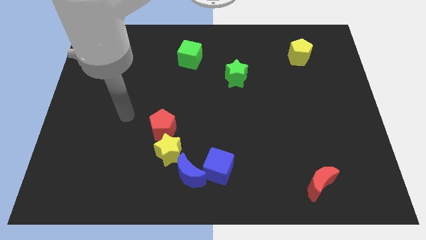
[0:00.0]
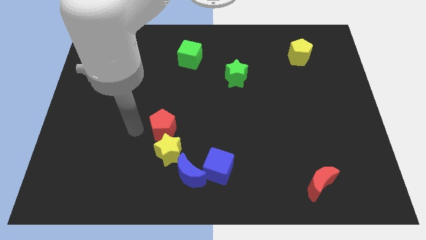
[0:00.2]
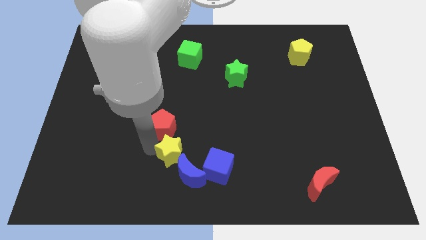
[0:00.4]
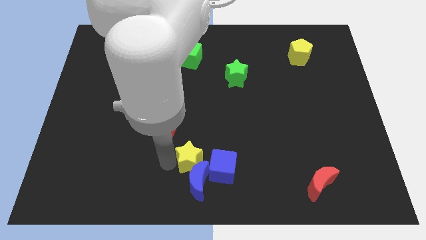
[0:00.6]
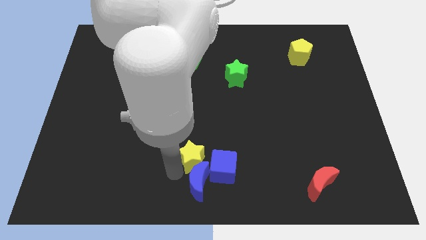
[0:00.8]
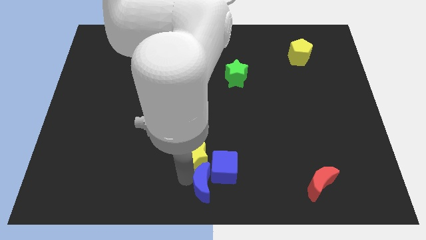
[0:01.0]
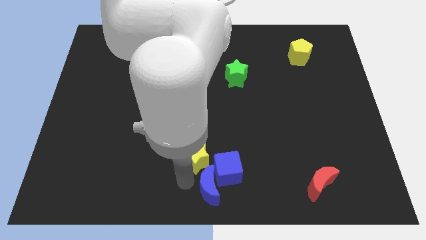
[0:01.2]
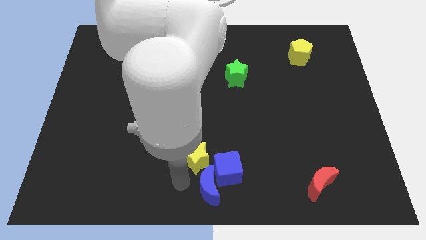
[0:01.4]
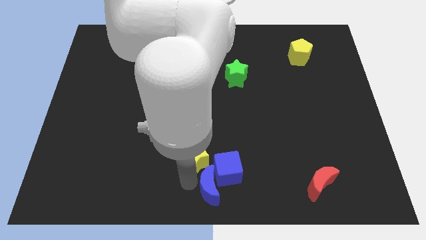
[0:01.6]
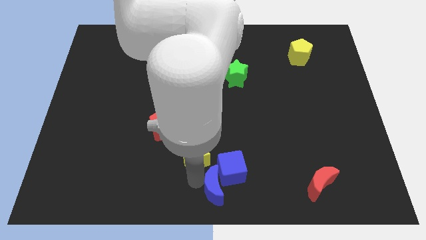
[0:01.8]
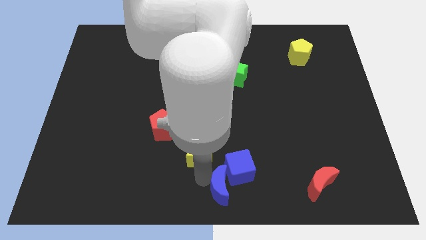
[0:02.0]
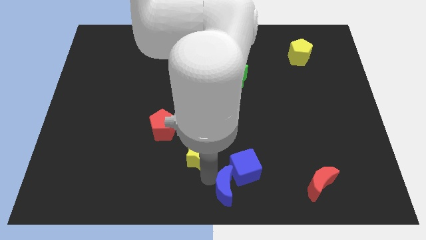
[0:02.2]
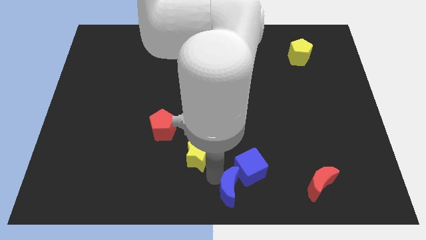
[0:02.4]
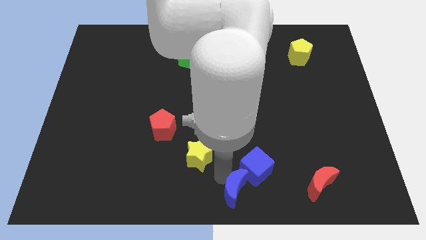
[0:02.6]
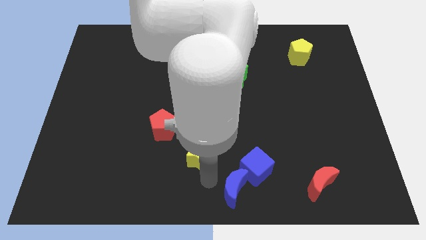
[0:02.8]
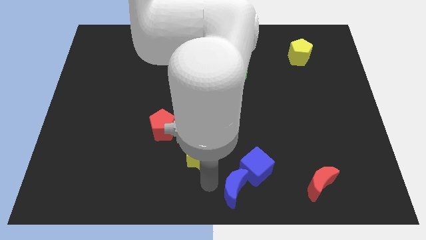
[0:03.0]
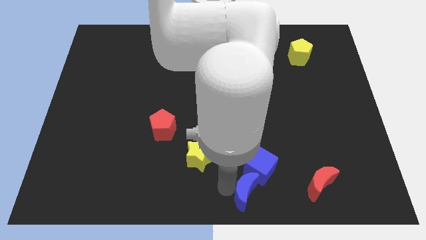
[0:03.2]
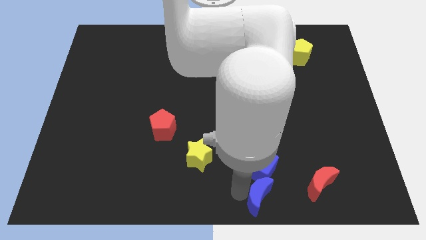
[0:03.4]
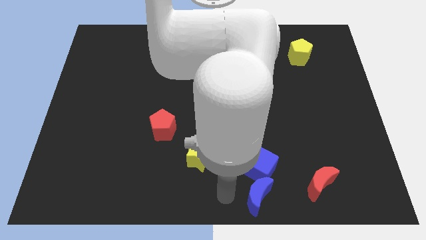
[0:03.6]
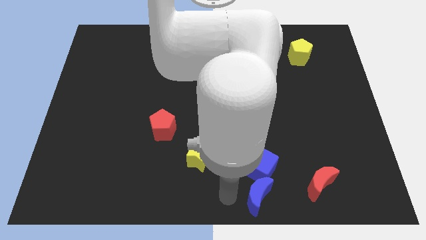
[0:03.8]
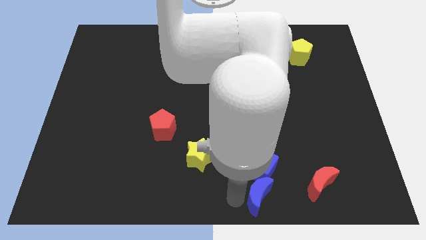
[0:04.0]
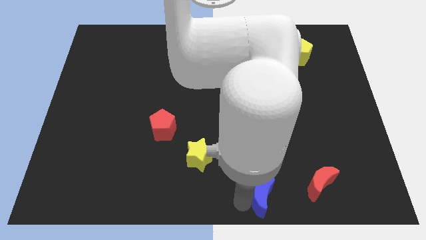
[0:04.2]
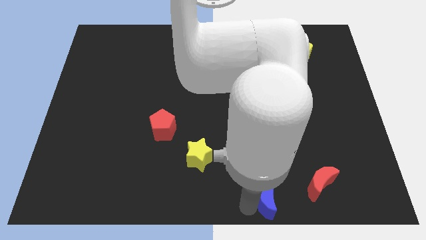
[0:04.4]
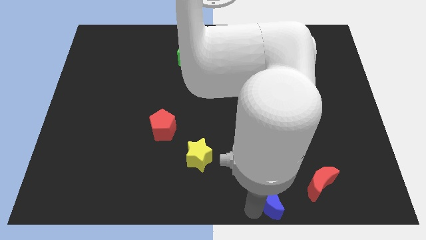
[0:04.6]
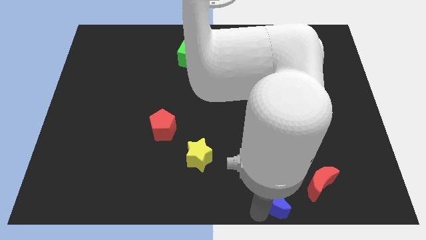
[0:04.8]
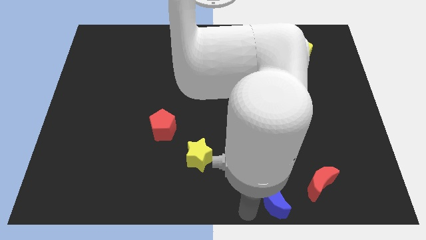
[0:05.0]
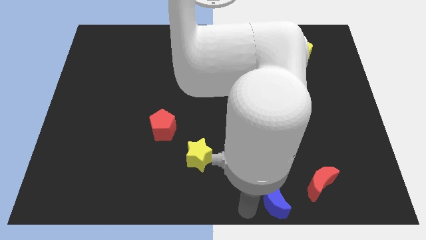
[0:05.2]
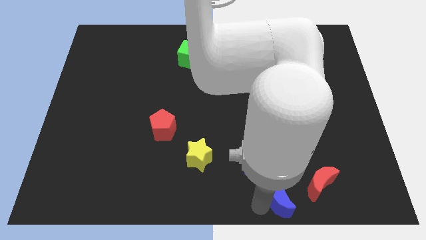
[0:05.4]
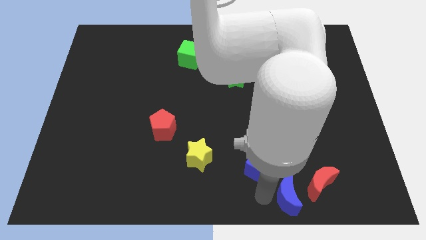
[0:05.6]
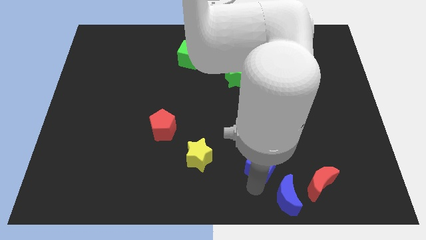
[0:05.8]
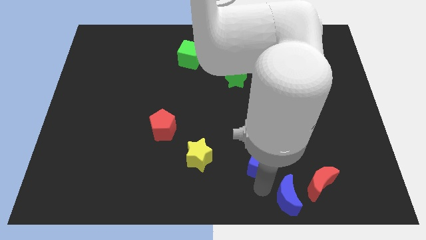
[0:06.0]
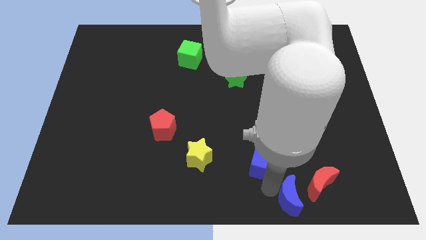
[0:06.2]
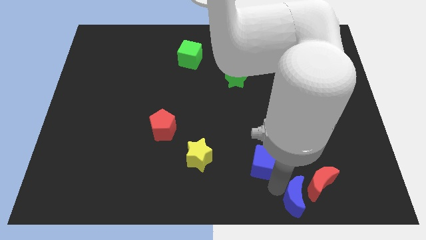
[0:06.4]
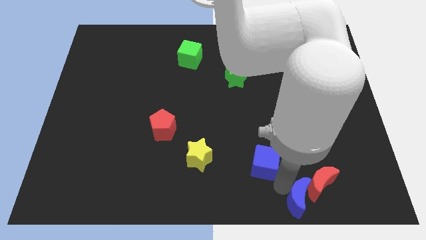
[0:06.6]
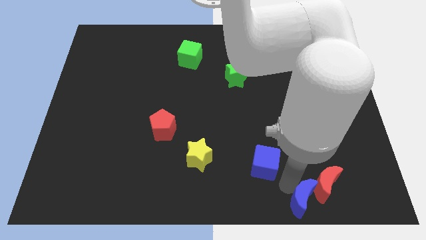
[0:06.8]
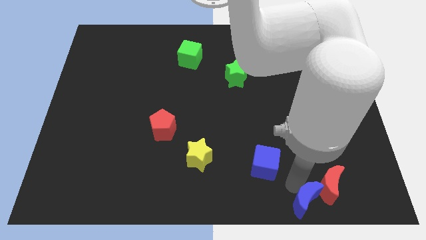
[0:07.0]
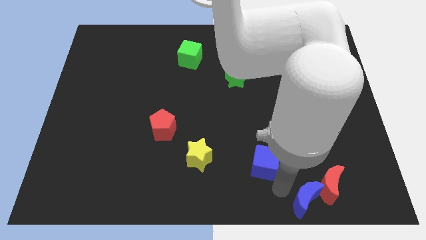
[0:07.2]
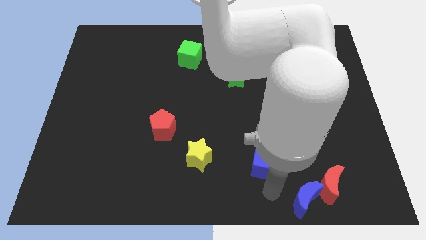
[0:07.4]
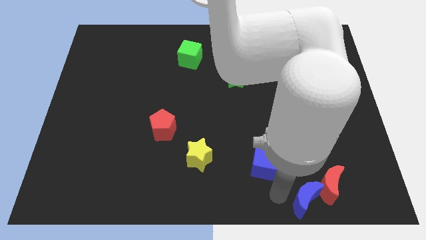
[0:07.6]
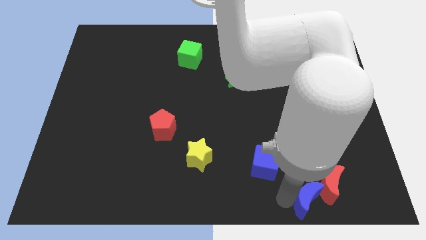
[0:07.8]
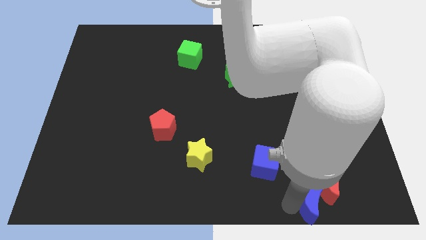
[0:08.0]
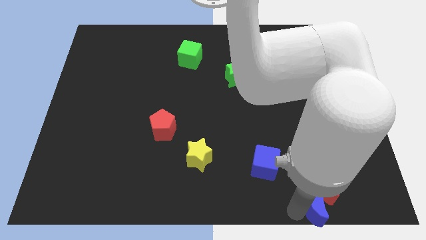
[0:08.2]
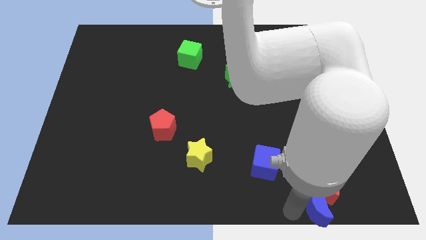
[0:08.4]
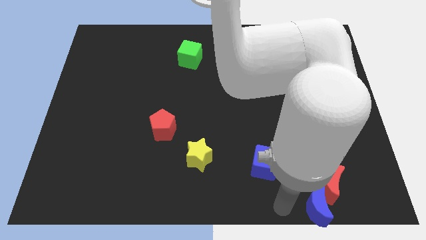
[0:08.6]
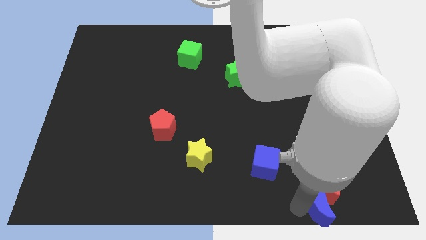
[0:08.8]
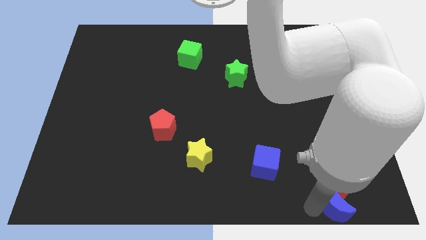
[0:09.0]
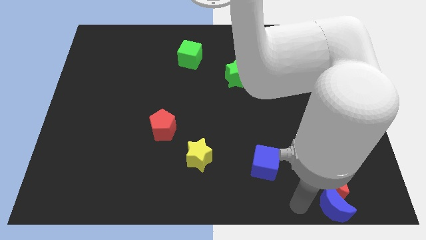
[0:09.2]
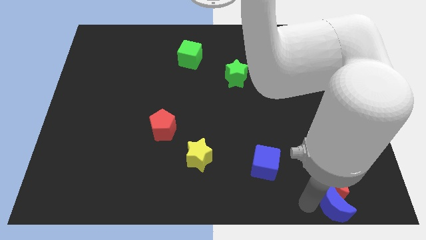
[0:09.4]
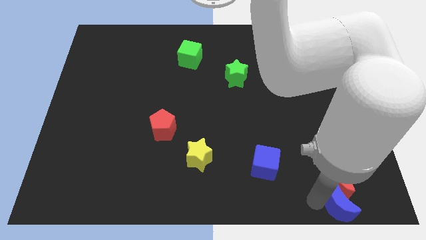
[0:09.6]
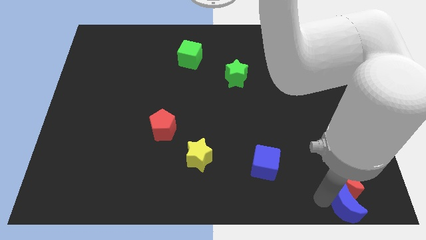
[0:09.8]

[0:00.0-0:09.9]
slide the blue moon to the bottom right corner

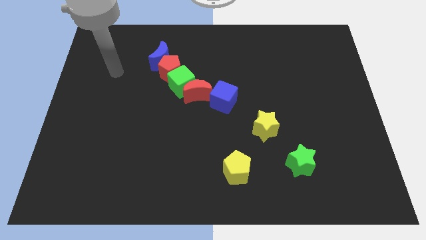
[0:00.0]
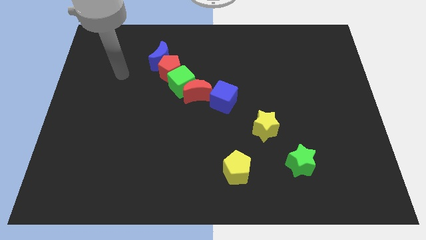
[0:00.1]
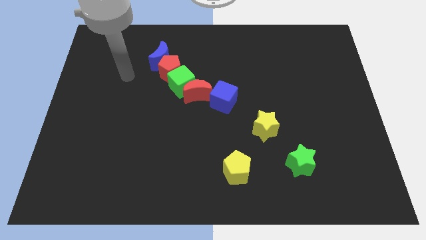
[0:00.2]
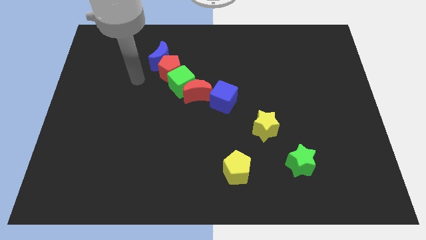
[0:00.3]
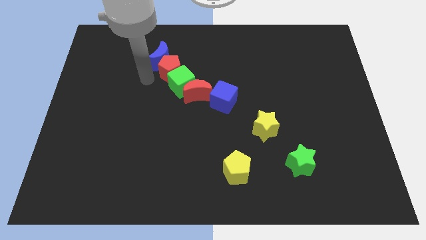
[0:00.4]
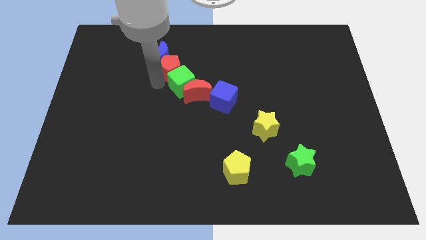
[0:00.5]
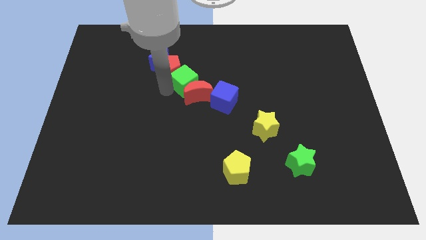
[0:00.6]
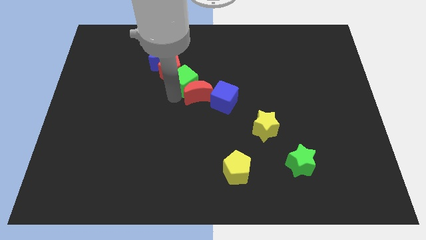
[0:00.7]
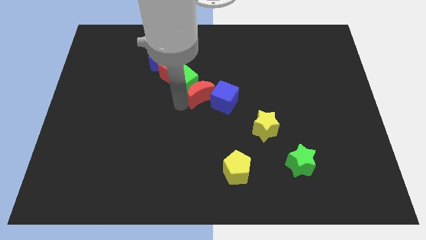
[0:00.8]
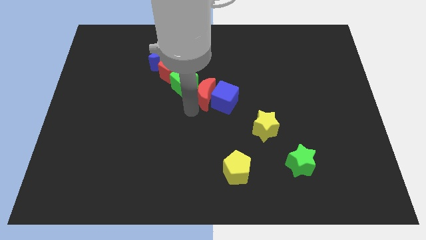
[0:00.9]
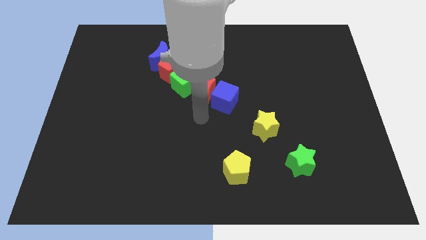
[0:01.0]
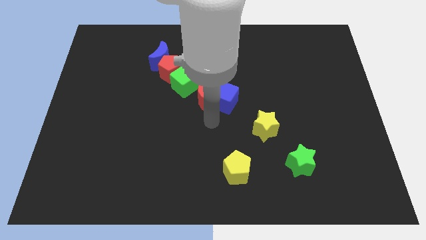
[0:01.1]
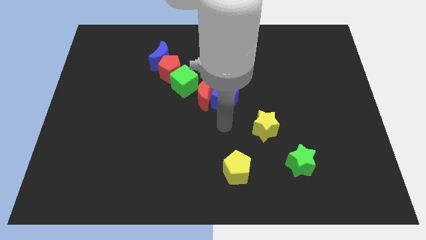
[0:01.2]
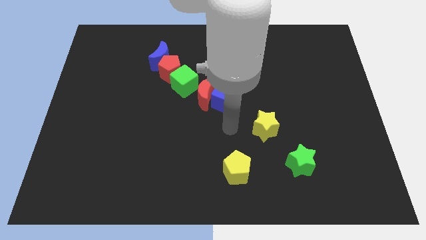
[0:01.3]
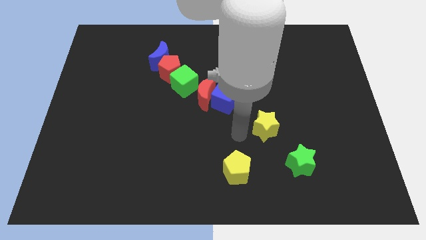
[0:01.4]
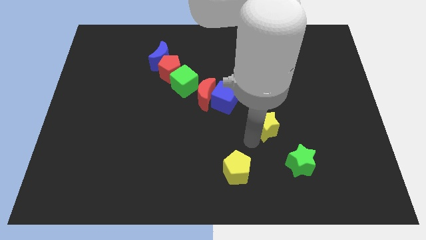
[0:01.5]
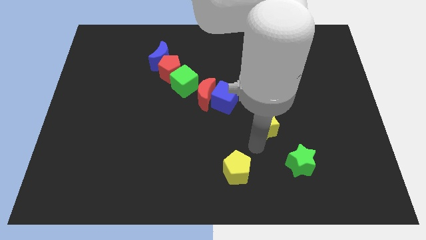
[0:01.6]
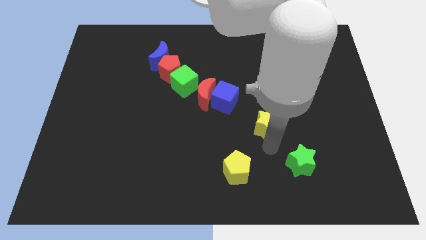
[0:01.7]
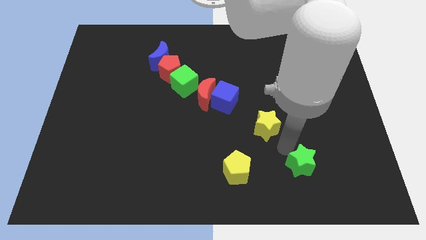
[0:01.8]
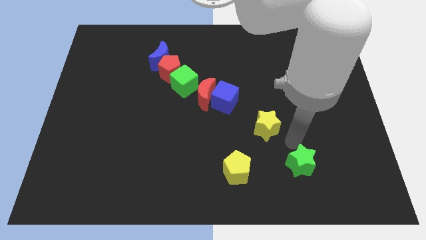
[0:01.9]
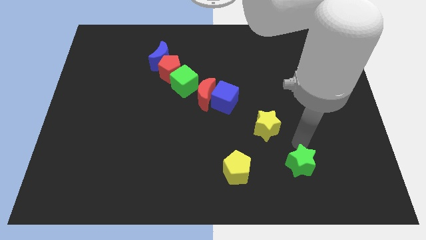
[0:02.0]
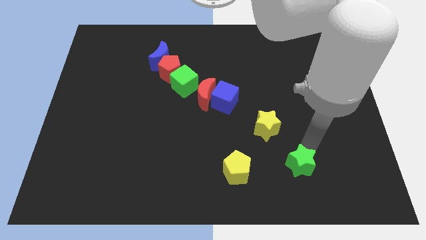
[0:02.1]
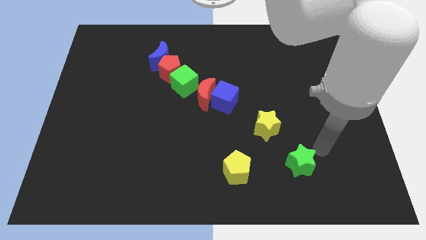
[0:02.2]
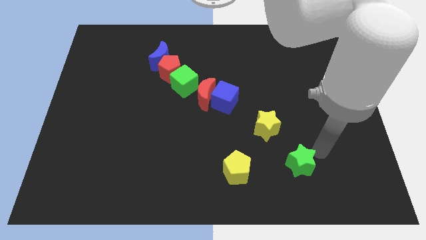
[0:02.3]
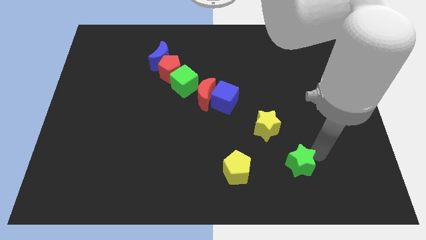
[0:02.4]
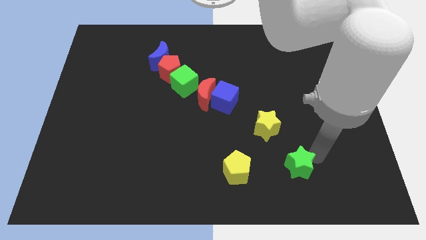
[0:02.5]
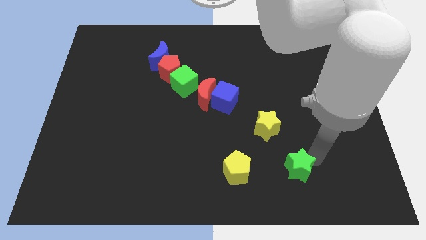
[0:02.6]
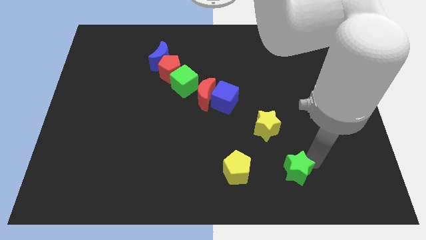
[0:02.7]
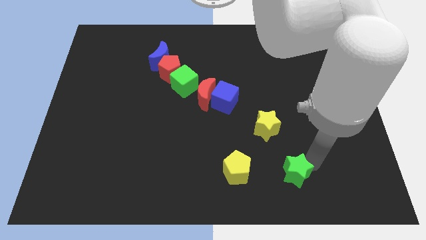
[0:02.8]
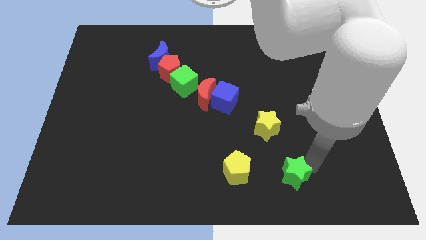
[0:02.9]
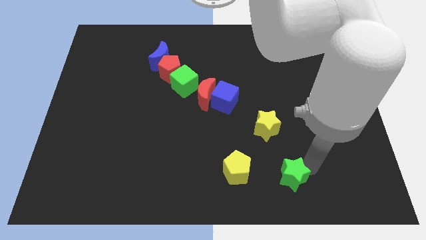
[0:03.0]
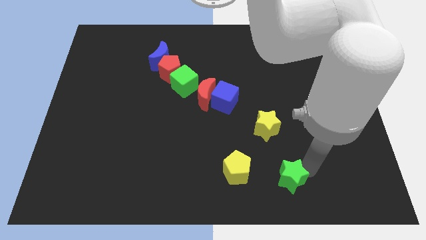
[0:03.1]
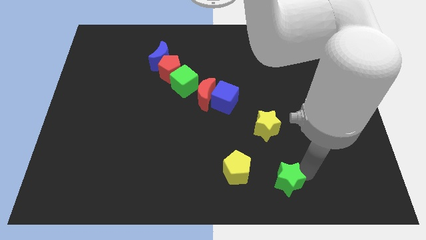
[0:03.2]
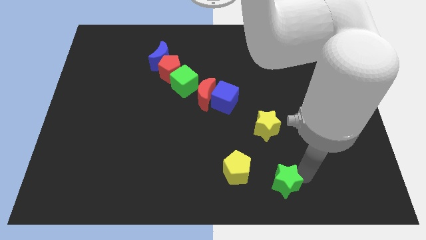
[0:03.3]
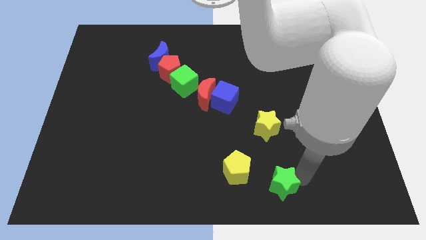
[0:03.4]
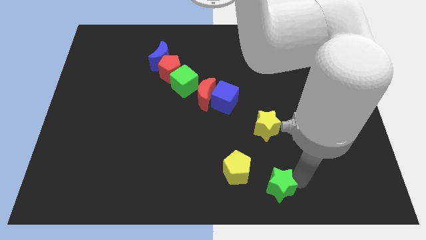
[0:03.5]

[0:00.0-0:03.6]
push the green star to the bottom
